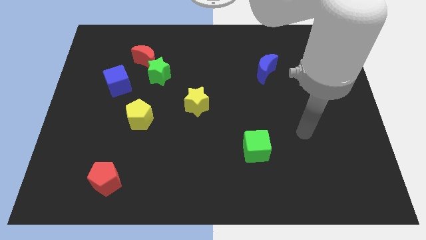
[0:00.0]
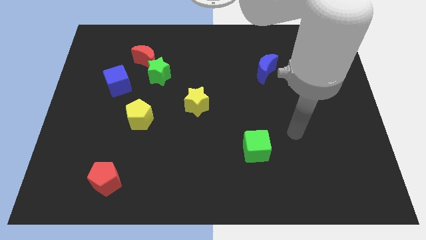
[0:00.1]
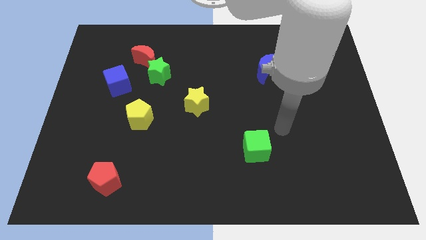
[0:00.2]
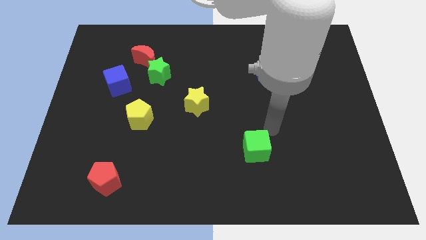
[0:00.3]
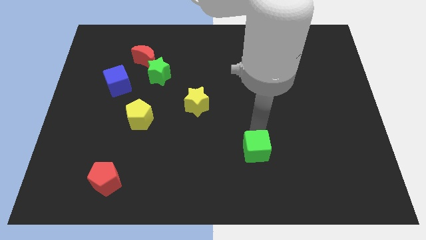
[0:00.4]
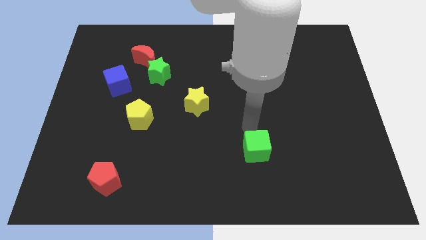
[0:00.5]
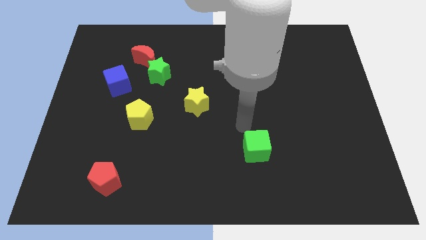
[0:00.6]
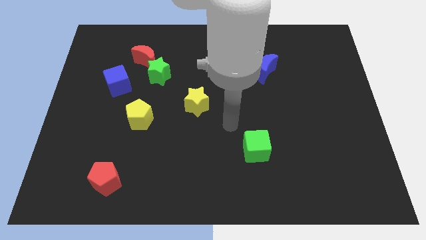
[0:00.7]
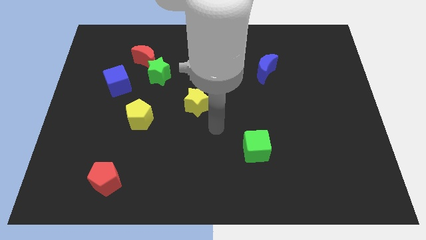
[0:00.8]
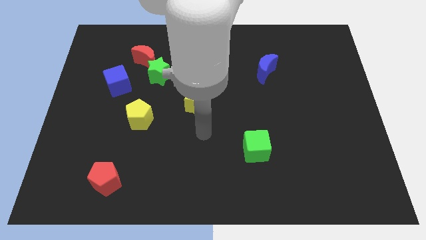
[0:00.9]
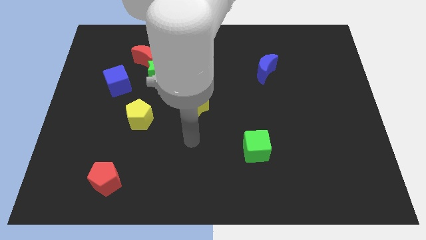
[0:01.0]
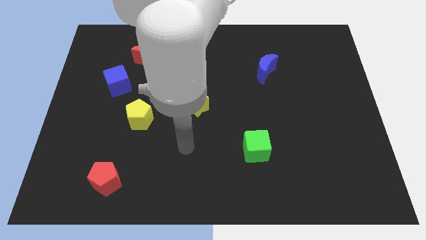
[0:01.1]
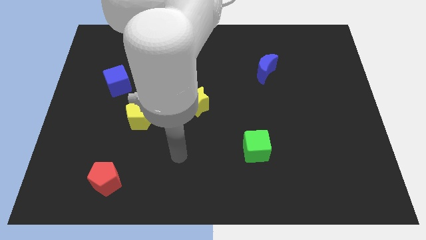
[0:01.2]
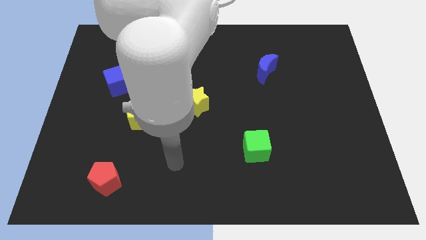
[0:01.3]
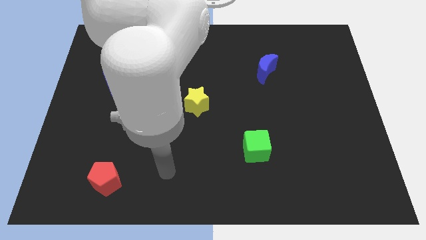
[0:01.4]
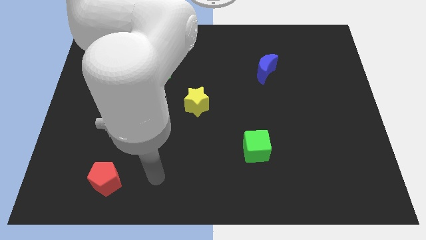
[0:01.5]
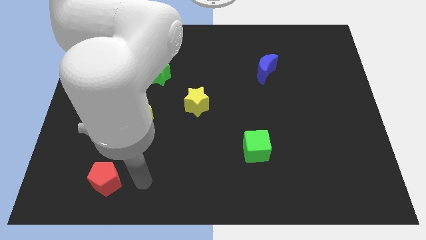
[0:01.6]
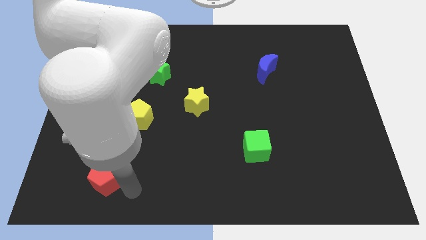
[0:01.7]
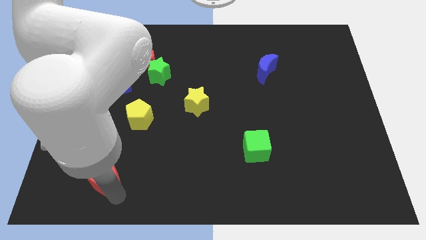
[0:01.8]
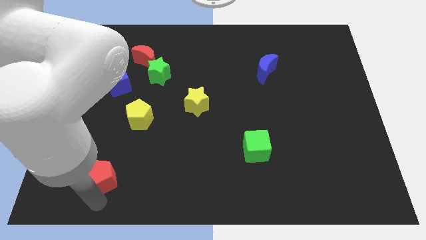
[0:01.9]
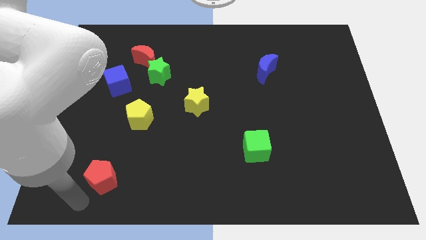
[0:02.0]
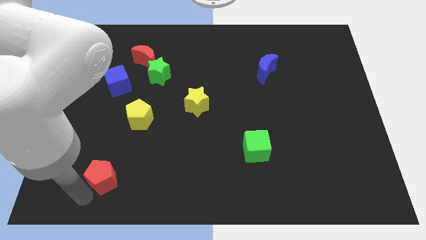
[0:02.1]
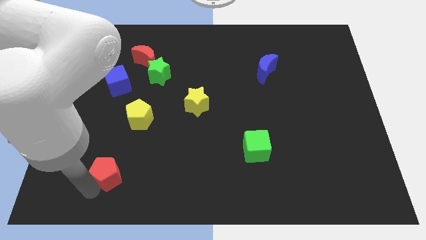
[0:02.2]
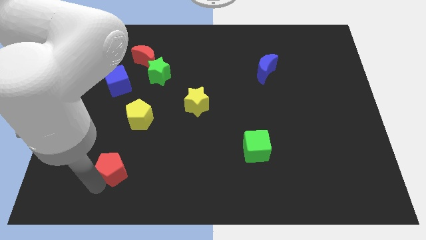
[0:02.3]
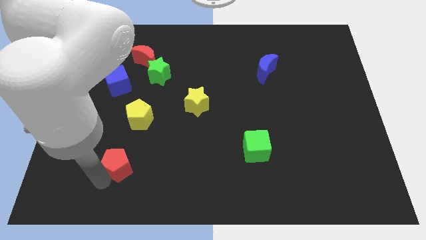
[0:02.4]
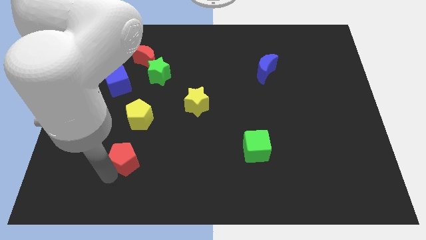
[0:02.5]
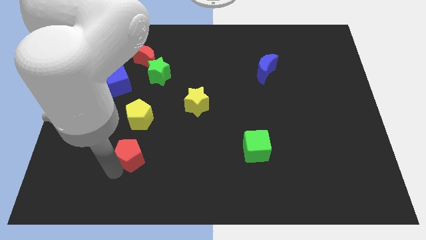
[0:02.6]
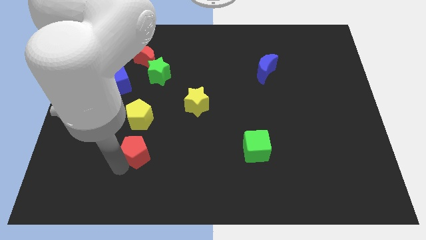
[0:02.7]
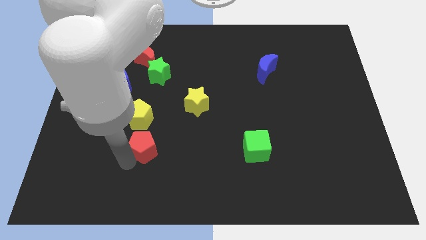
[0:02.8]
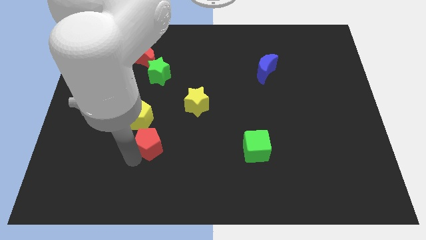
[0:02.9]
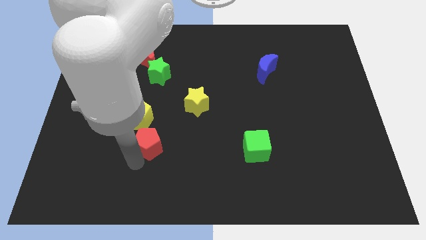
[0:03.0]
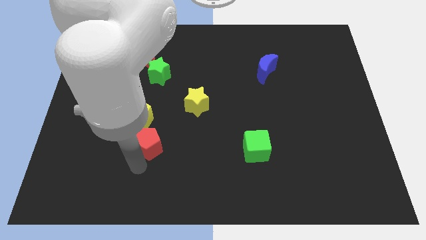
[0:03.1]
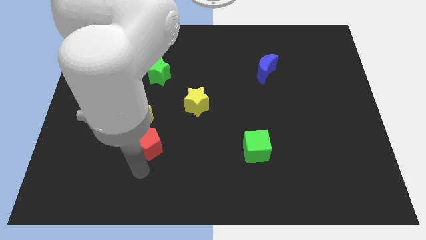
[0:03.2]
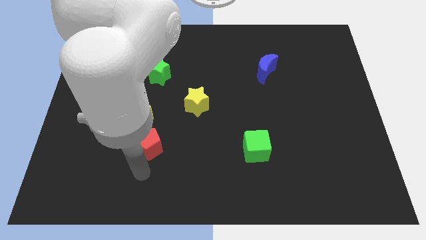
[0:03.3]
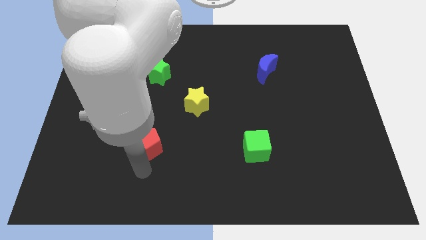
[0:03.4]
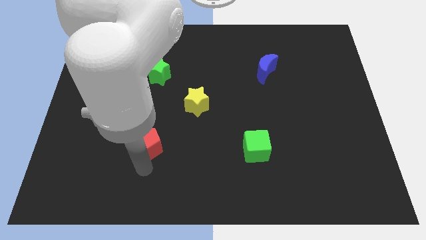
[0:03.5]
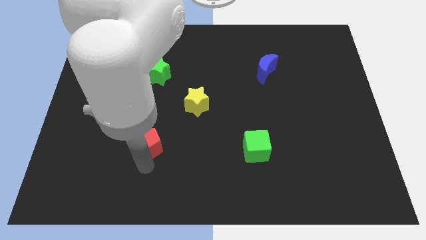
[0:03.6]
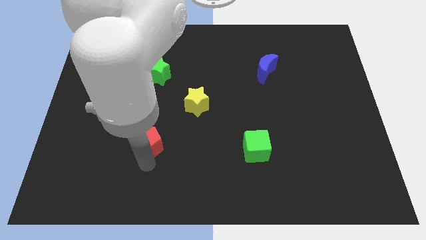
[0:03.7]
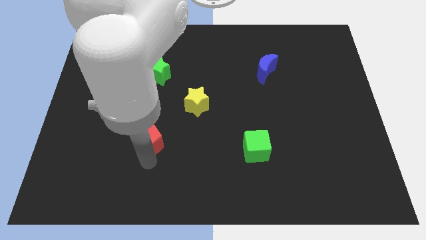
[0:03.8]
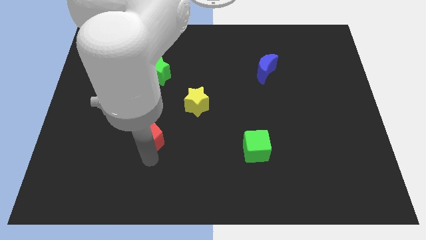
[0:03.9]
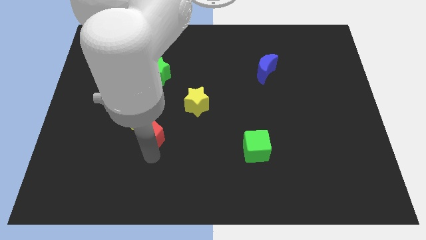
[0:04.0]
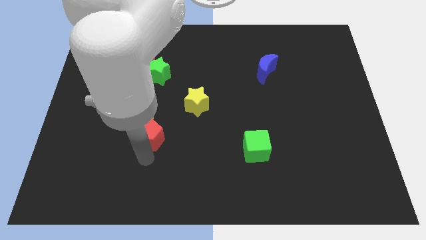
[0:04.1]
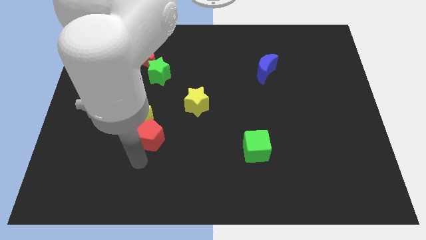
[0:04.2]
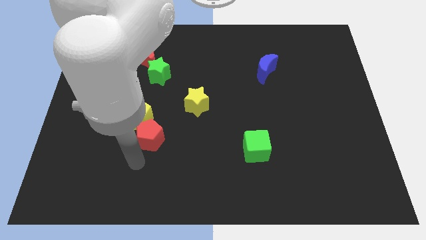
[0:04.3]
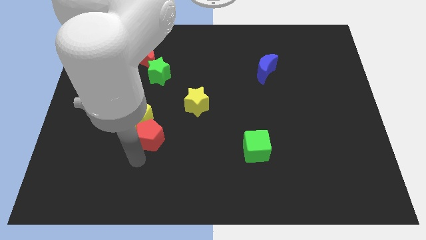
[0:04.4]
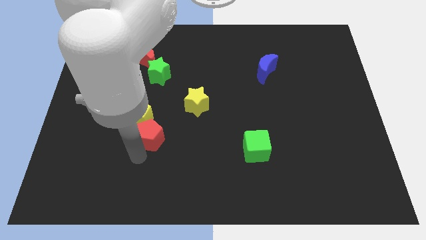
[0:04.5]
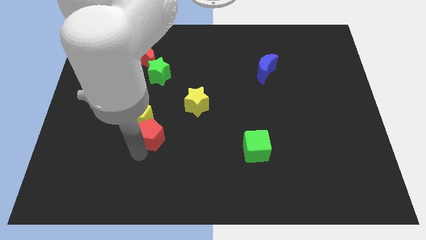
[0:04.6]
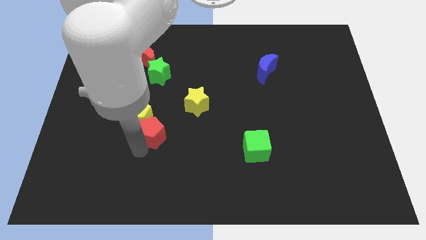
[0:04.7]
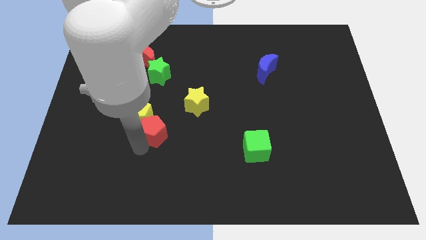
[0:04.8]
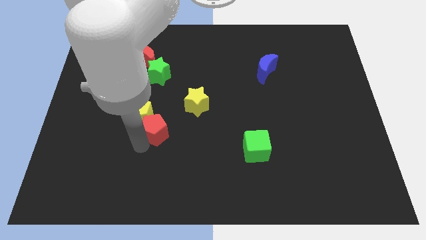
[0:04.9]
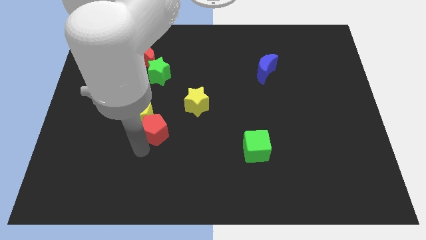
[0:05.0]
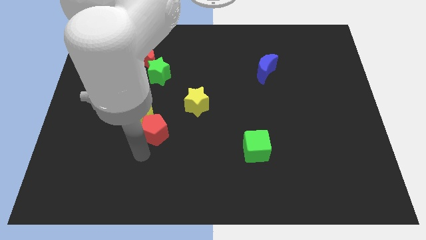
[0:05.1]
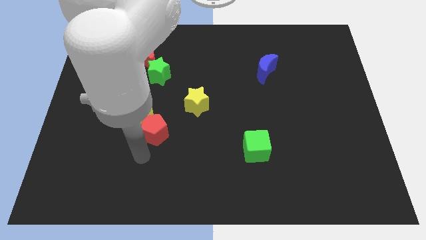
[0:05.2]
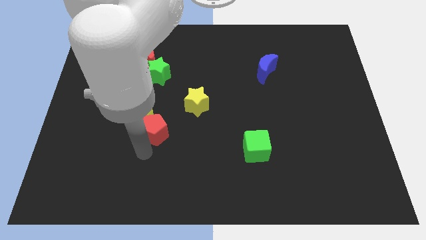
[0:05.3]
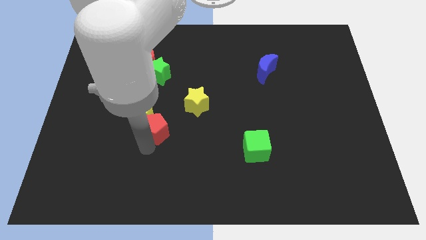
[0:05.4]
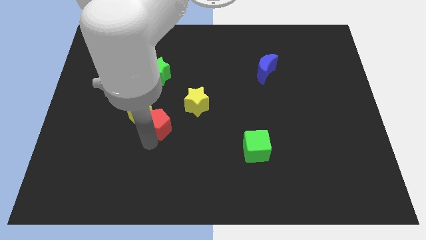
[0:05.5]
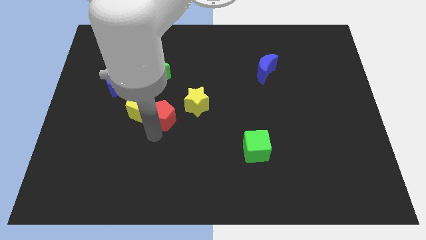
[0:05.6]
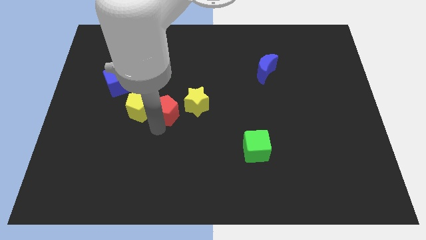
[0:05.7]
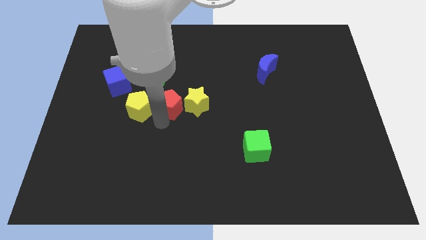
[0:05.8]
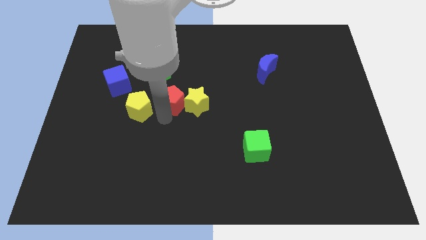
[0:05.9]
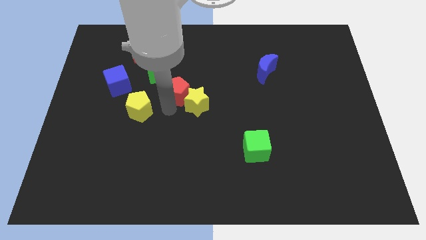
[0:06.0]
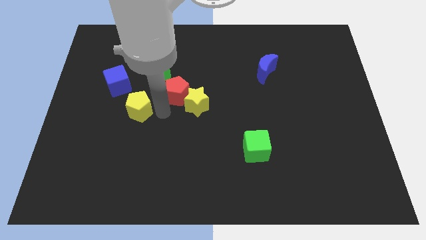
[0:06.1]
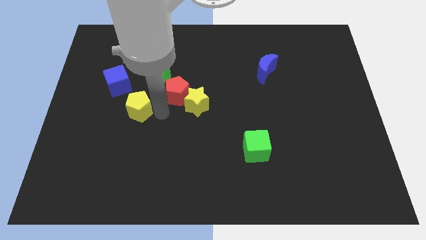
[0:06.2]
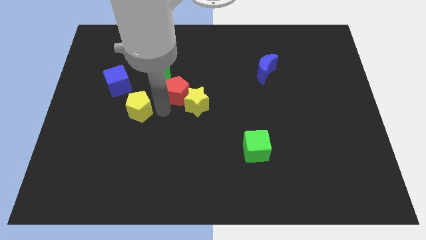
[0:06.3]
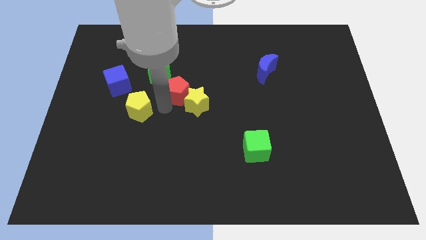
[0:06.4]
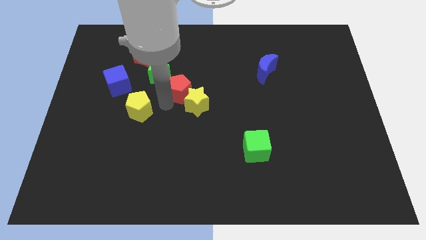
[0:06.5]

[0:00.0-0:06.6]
put the red pentagon to the top of the yellow star
